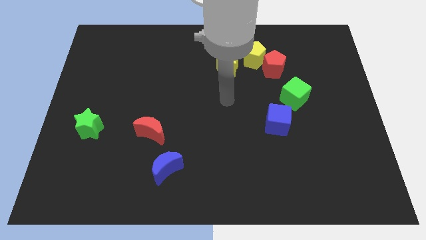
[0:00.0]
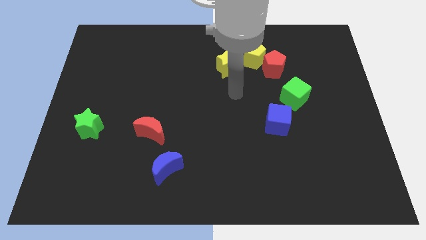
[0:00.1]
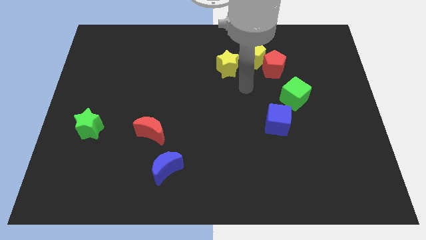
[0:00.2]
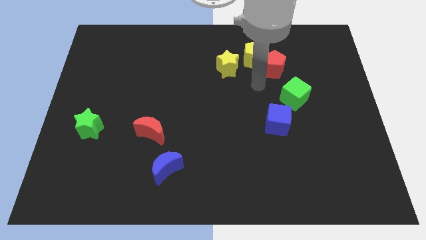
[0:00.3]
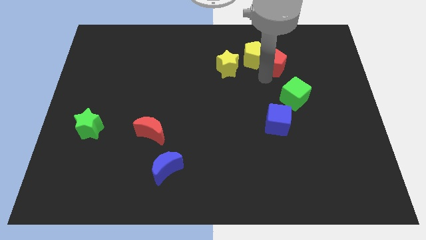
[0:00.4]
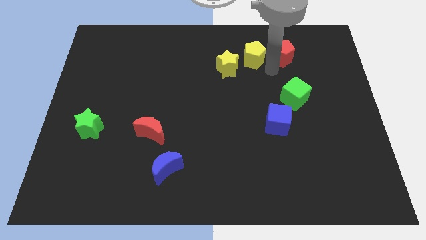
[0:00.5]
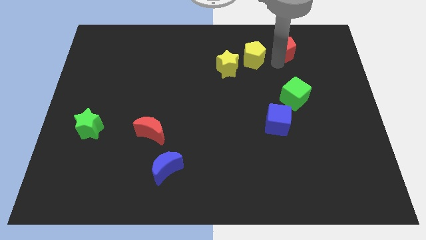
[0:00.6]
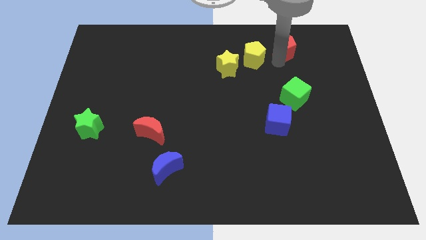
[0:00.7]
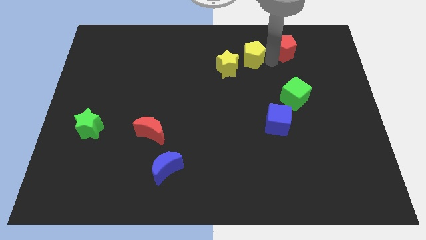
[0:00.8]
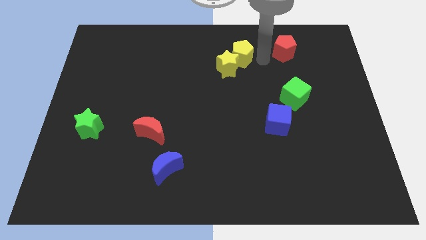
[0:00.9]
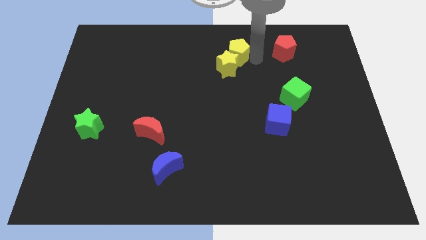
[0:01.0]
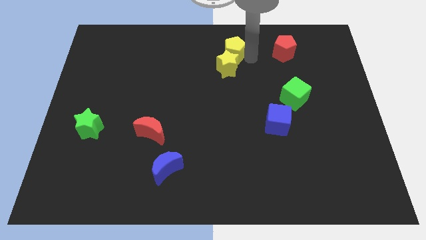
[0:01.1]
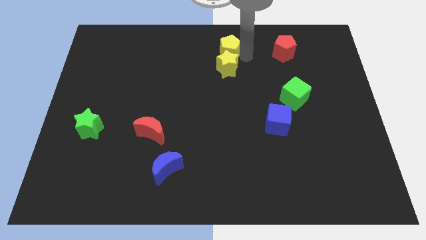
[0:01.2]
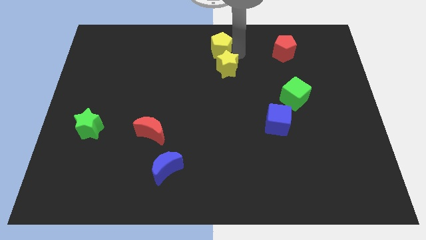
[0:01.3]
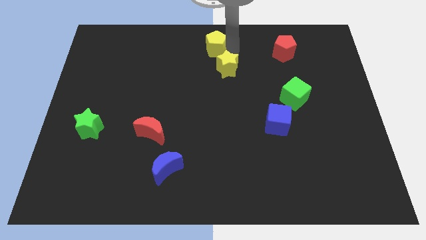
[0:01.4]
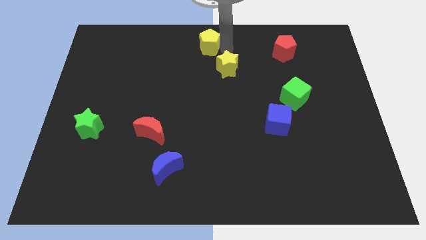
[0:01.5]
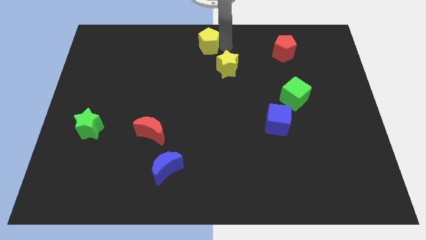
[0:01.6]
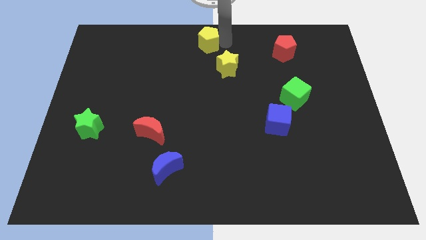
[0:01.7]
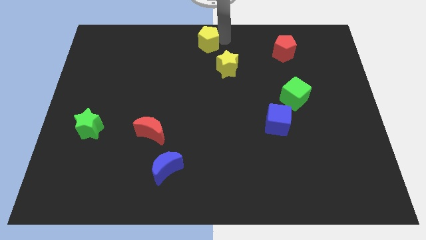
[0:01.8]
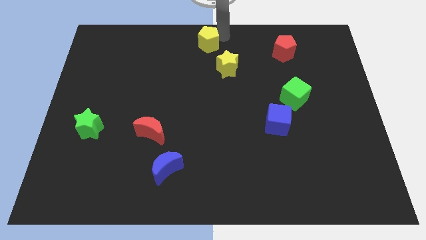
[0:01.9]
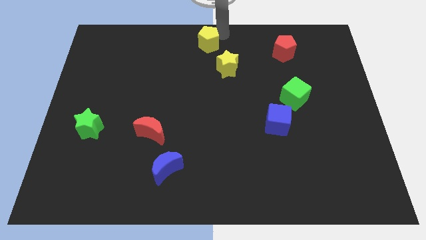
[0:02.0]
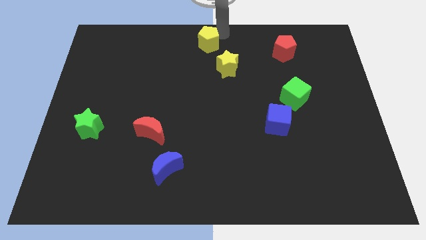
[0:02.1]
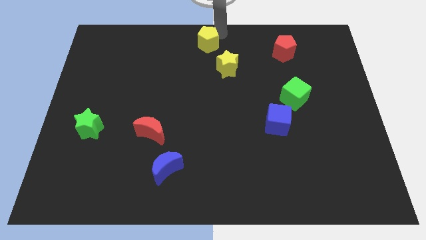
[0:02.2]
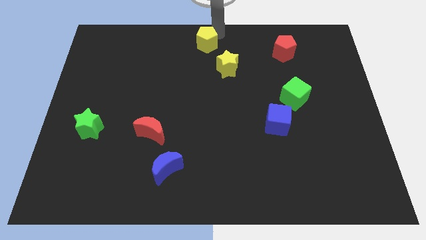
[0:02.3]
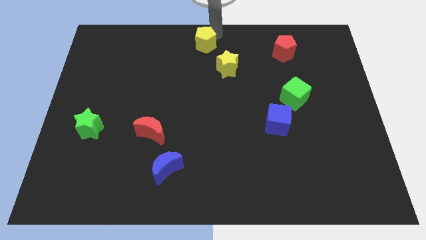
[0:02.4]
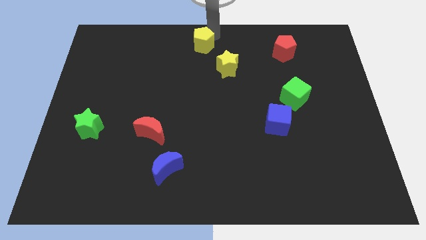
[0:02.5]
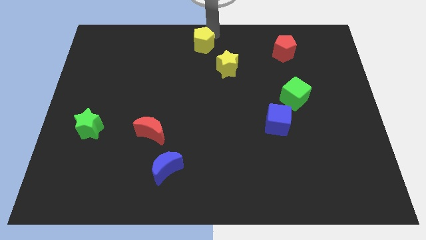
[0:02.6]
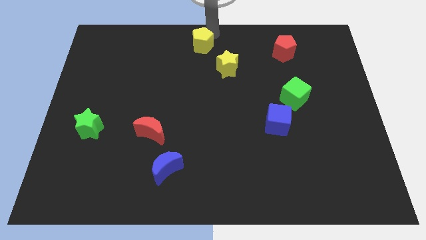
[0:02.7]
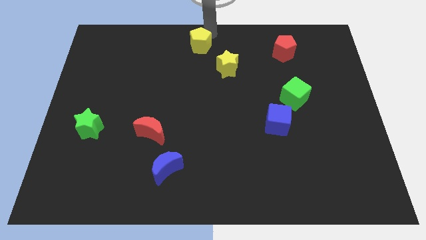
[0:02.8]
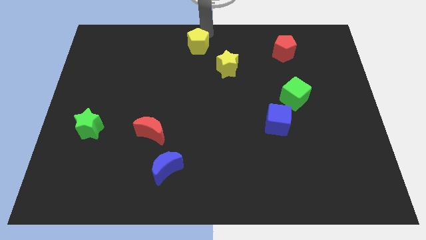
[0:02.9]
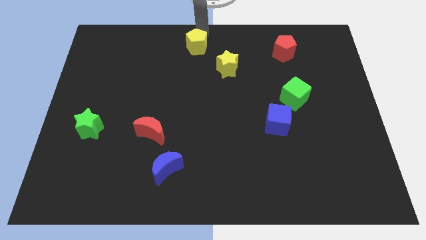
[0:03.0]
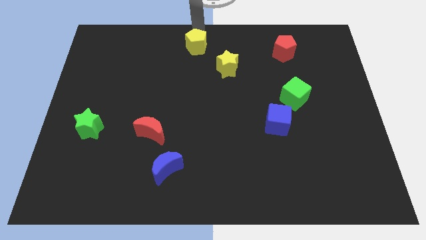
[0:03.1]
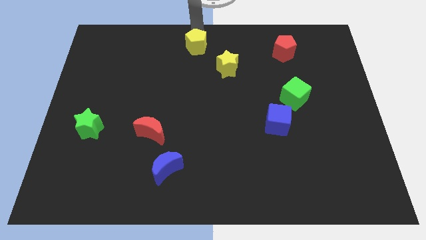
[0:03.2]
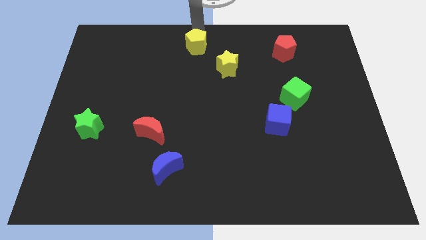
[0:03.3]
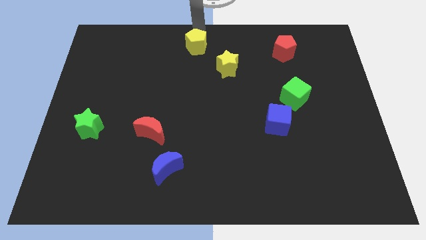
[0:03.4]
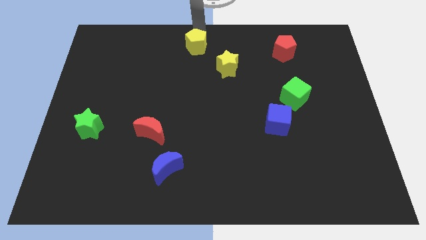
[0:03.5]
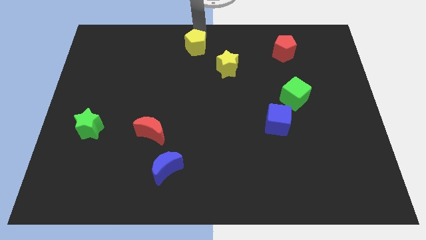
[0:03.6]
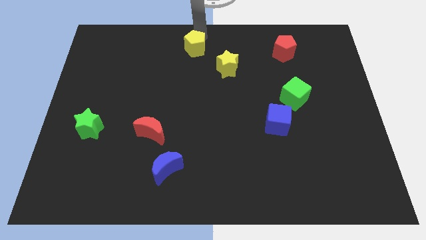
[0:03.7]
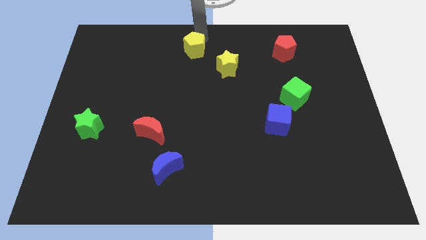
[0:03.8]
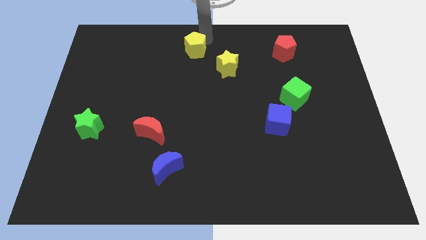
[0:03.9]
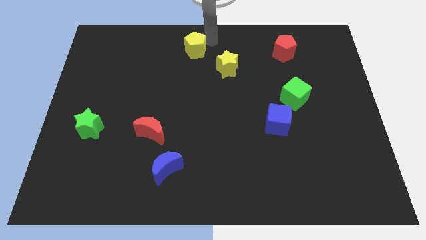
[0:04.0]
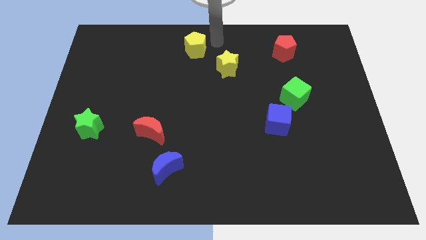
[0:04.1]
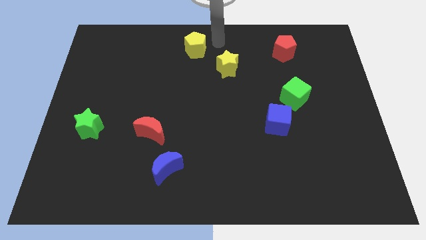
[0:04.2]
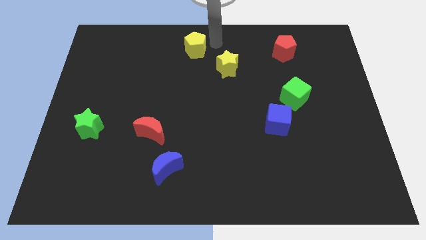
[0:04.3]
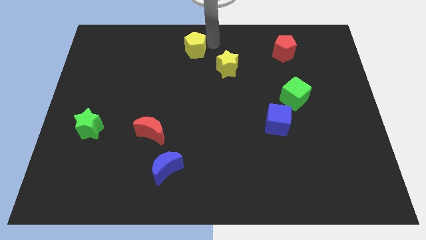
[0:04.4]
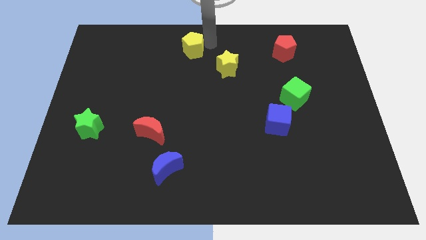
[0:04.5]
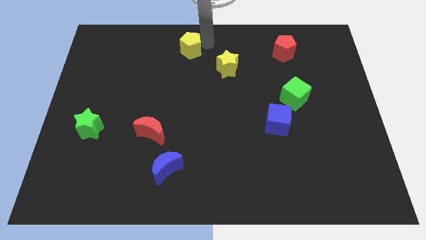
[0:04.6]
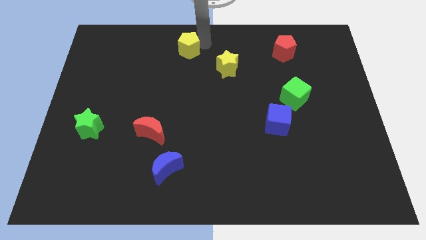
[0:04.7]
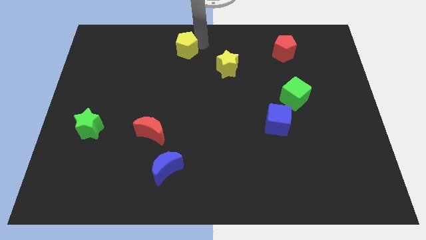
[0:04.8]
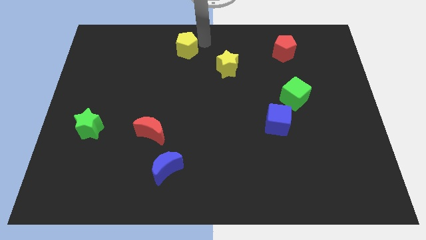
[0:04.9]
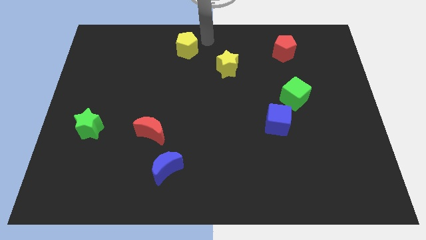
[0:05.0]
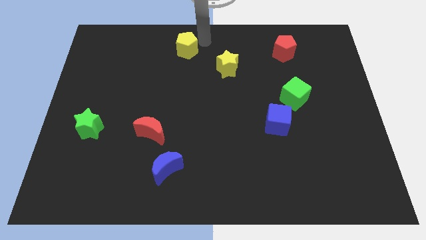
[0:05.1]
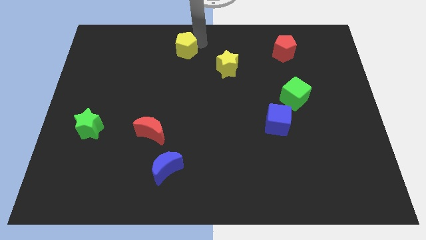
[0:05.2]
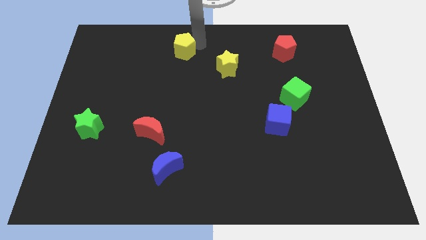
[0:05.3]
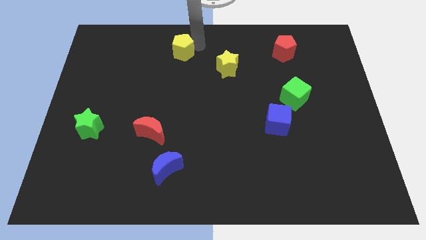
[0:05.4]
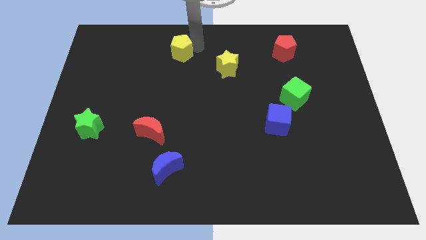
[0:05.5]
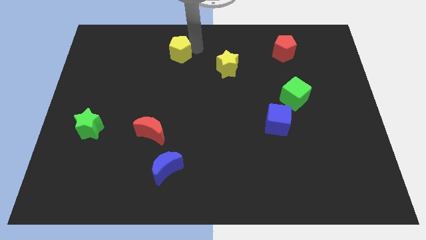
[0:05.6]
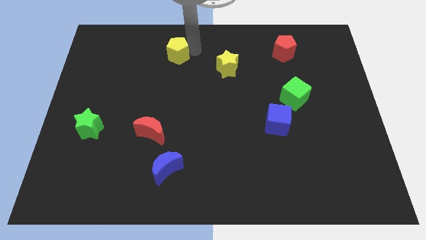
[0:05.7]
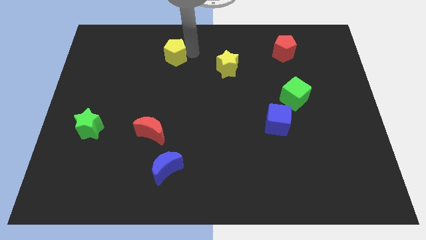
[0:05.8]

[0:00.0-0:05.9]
slide the yellow pentagon to the left

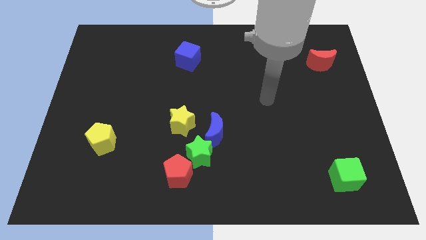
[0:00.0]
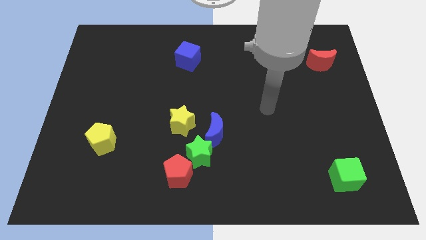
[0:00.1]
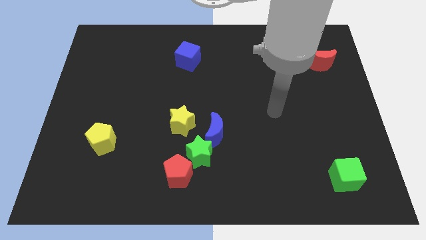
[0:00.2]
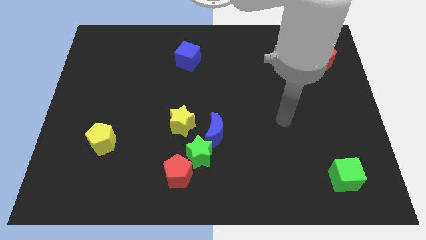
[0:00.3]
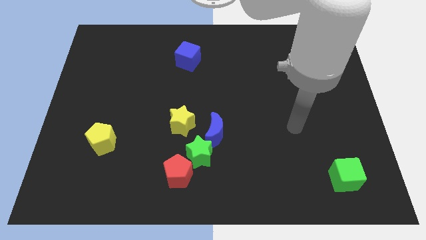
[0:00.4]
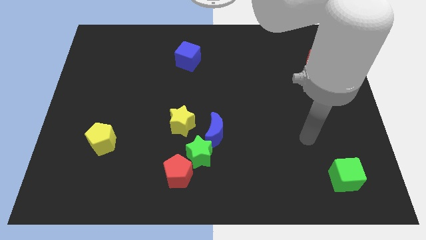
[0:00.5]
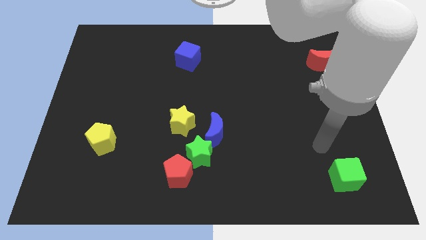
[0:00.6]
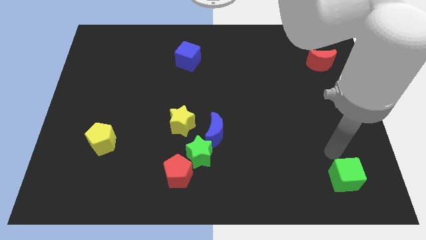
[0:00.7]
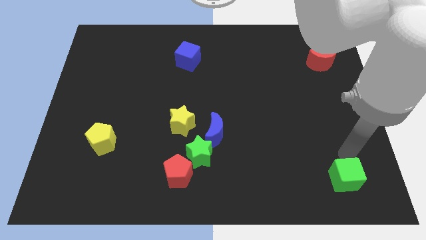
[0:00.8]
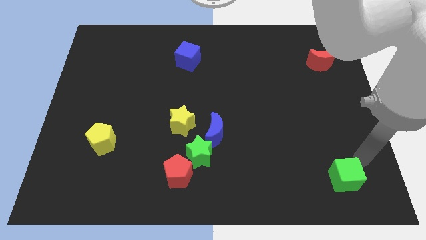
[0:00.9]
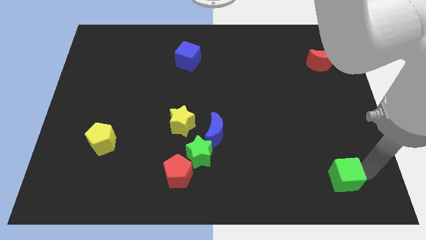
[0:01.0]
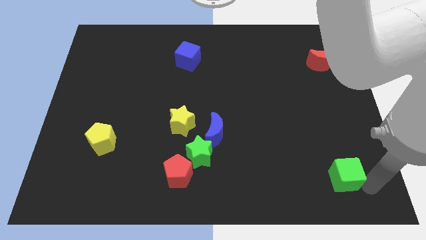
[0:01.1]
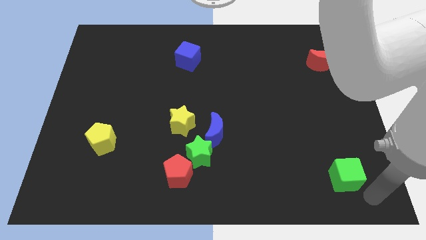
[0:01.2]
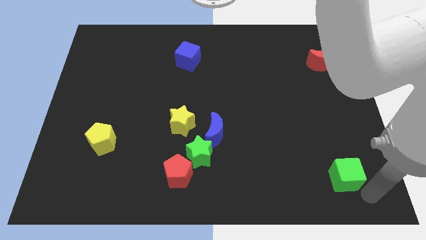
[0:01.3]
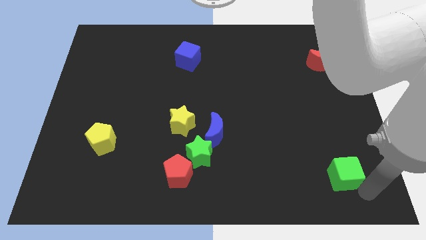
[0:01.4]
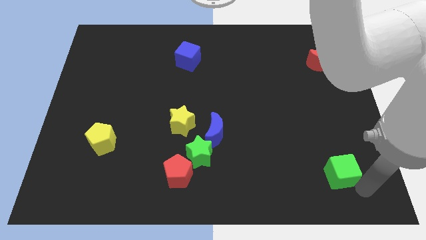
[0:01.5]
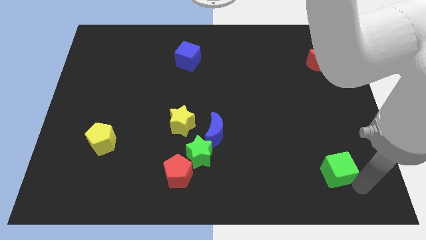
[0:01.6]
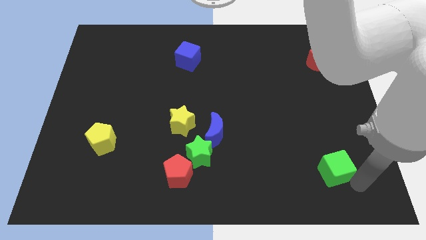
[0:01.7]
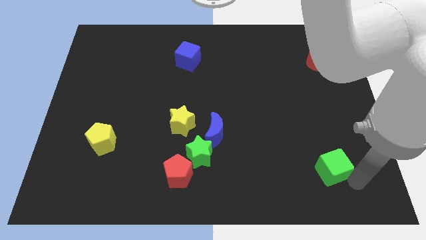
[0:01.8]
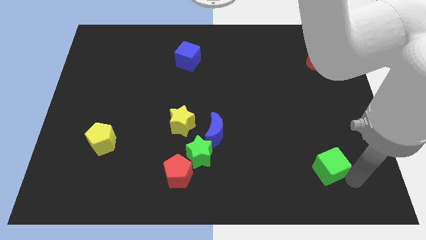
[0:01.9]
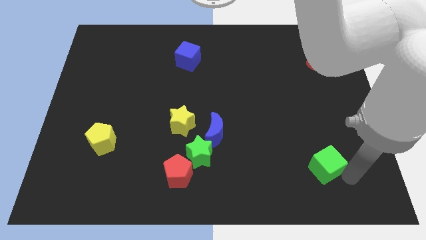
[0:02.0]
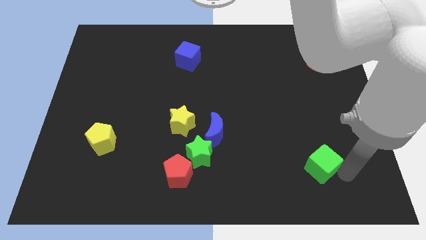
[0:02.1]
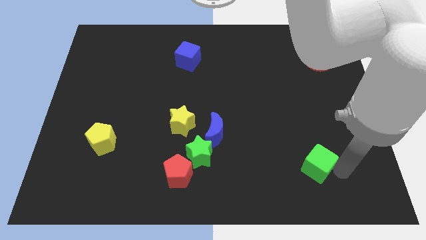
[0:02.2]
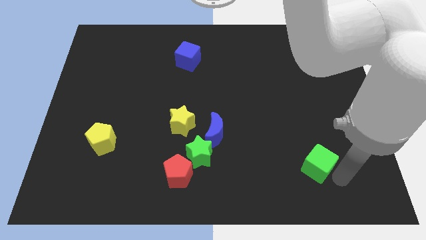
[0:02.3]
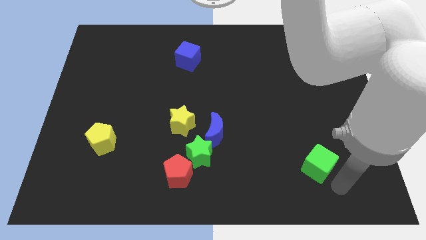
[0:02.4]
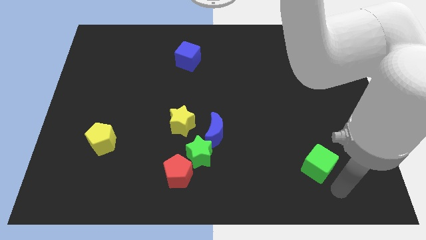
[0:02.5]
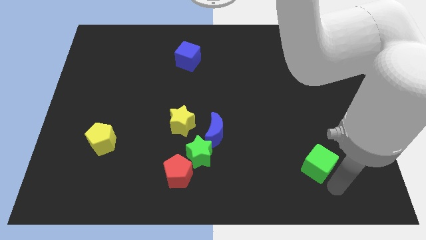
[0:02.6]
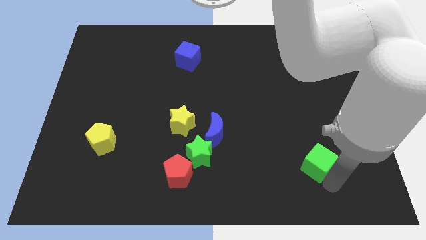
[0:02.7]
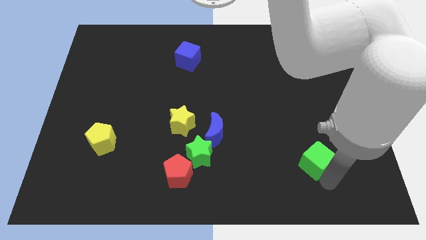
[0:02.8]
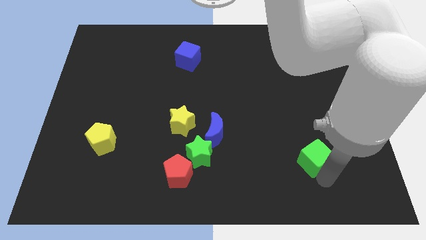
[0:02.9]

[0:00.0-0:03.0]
slide the green cube diagonally upwards and left a little bit
